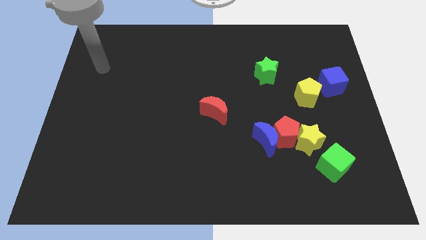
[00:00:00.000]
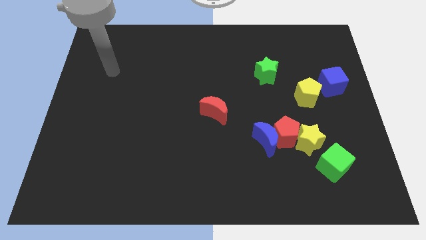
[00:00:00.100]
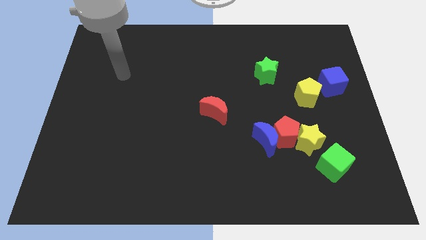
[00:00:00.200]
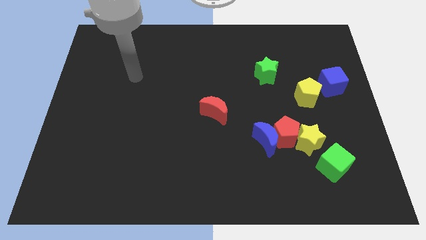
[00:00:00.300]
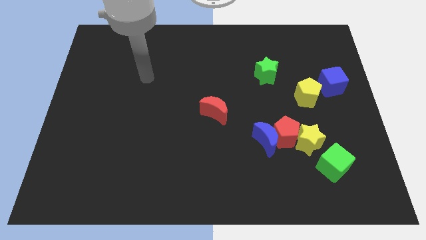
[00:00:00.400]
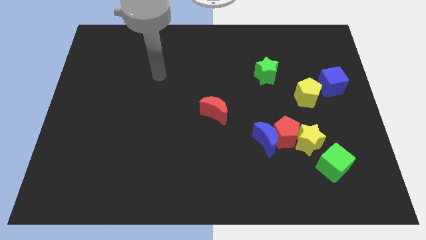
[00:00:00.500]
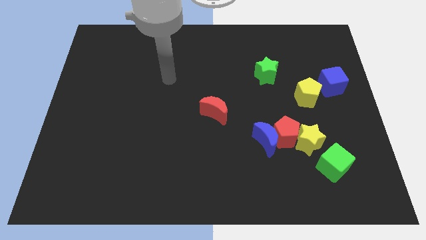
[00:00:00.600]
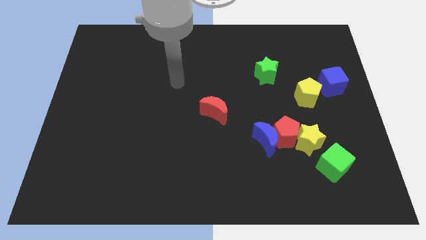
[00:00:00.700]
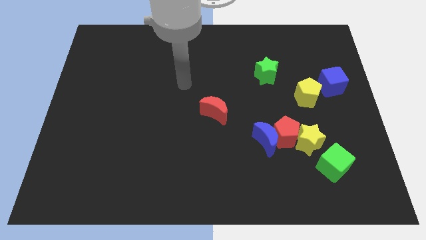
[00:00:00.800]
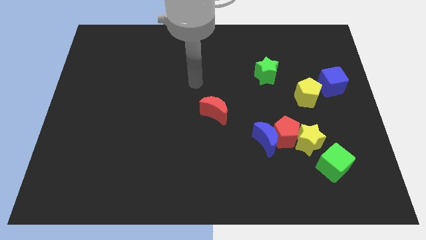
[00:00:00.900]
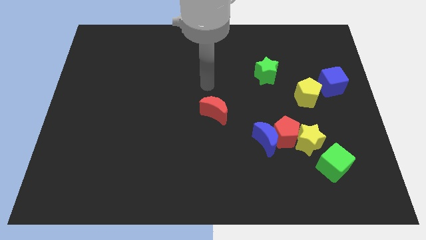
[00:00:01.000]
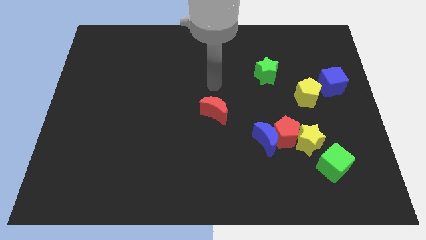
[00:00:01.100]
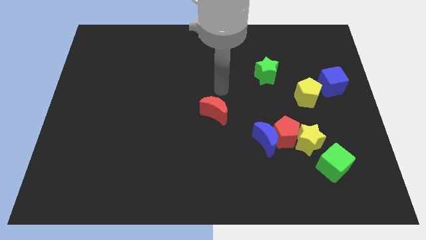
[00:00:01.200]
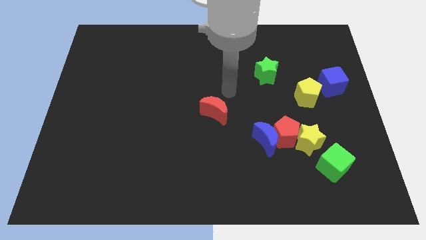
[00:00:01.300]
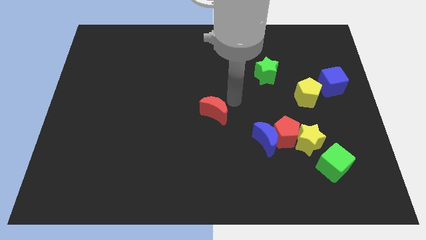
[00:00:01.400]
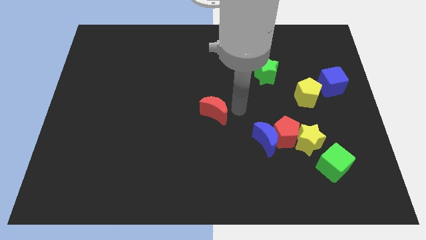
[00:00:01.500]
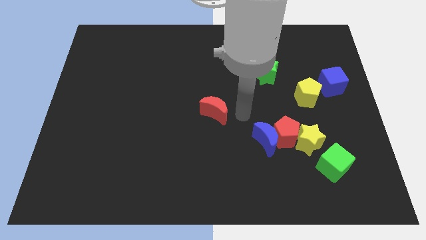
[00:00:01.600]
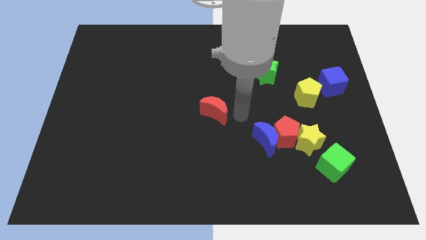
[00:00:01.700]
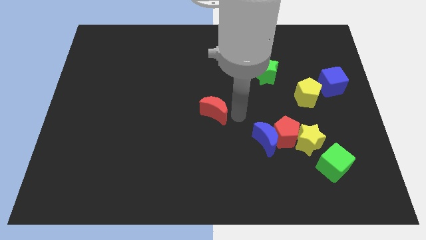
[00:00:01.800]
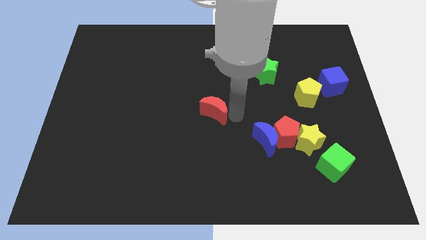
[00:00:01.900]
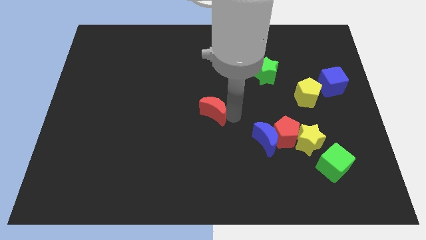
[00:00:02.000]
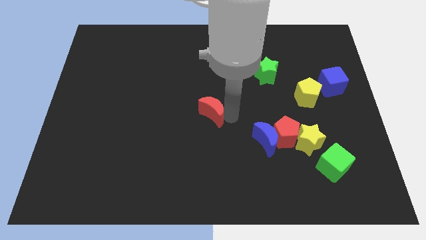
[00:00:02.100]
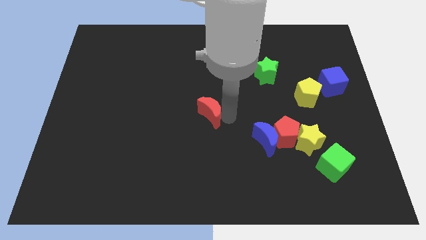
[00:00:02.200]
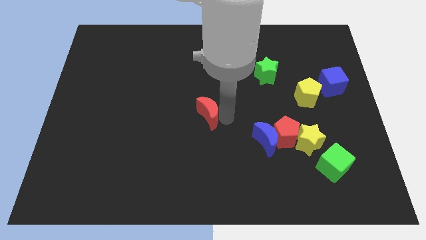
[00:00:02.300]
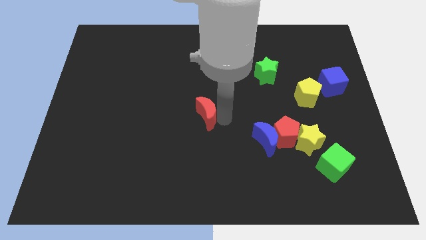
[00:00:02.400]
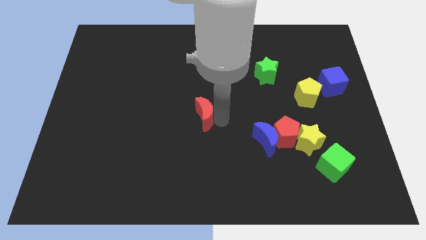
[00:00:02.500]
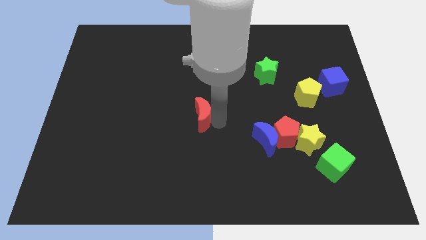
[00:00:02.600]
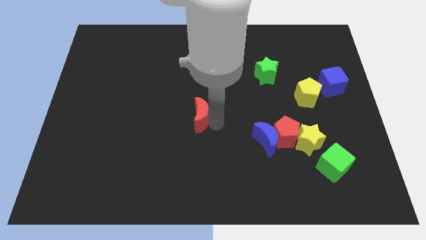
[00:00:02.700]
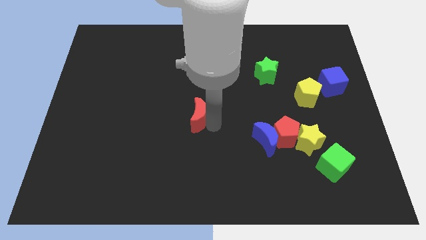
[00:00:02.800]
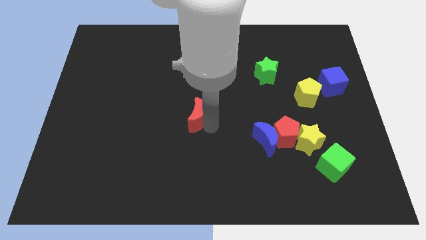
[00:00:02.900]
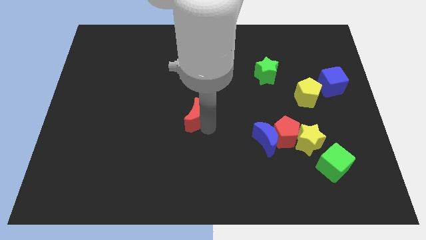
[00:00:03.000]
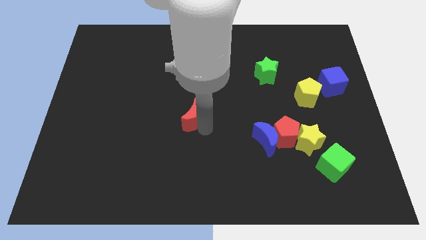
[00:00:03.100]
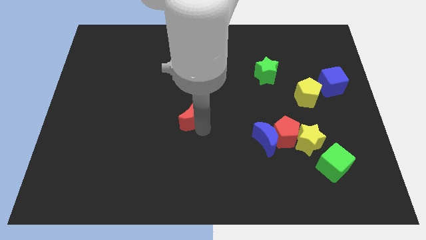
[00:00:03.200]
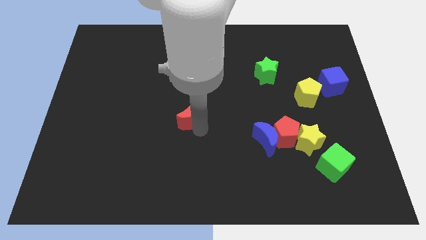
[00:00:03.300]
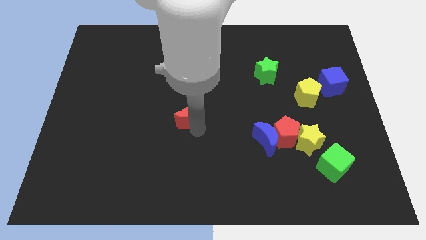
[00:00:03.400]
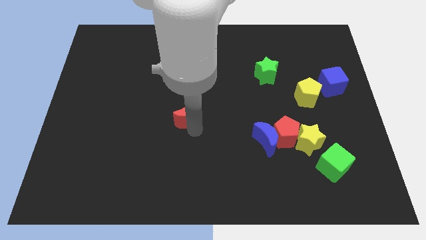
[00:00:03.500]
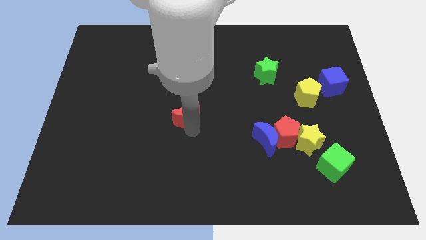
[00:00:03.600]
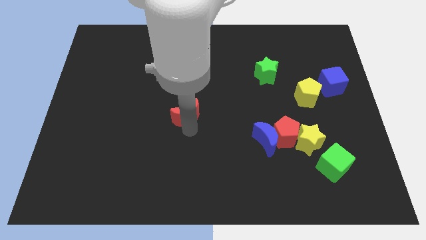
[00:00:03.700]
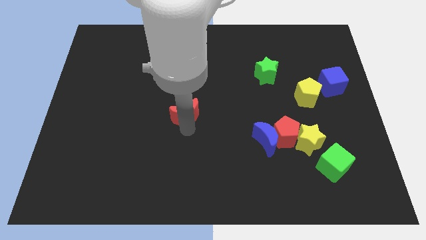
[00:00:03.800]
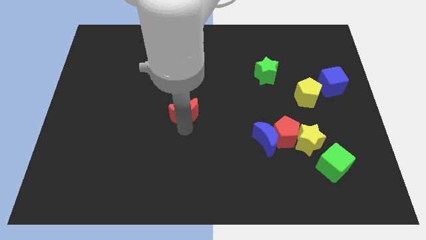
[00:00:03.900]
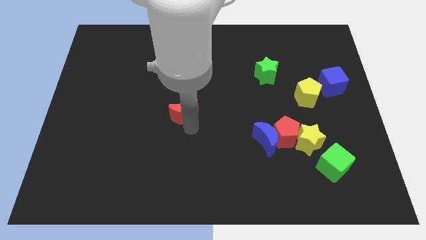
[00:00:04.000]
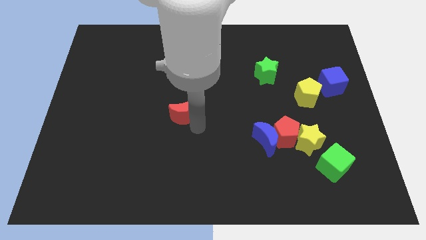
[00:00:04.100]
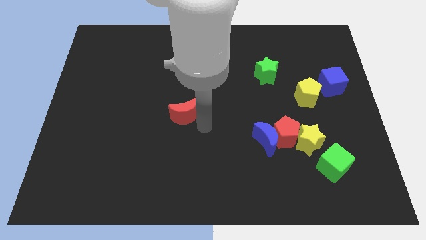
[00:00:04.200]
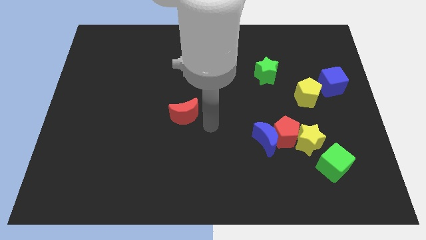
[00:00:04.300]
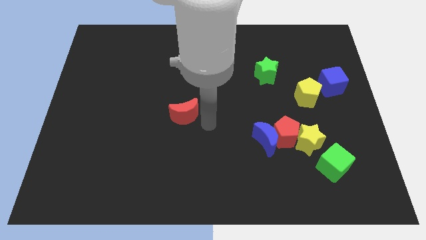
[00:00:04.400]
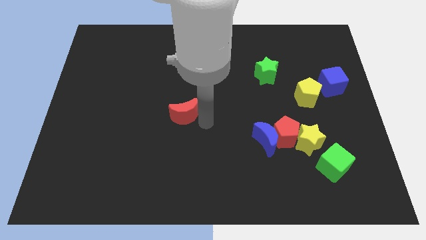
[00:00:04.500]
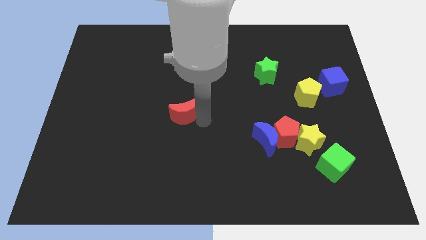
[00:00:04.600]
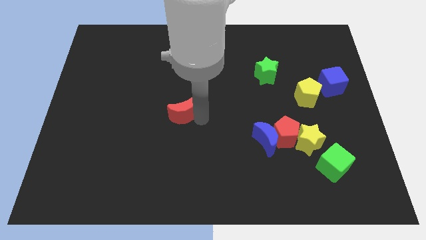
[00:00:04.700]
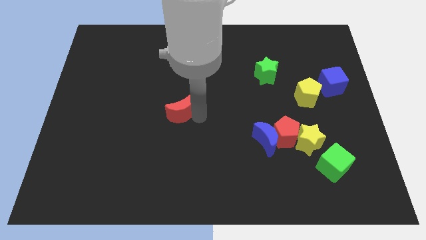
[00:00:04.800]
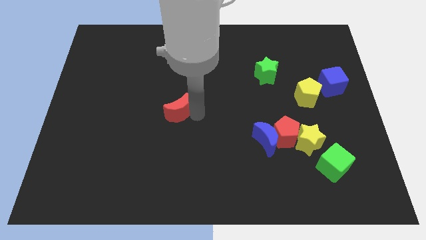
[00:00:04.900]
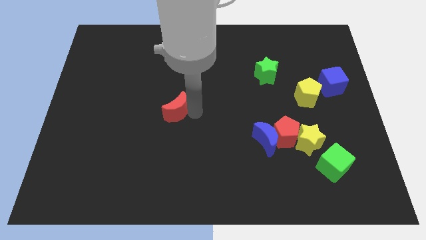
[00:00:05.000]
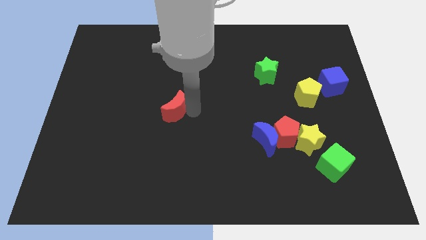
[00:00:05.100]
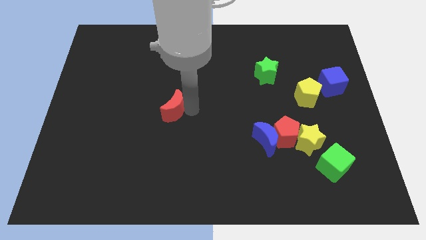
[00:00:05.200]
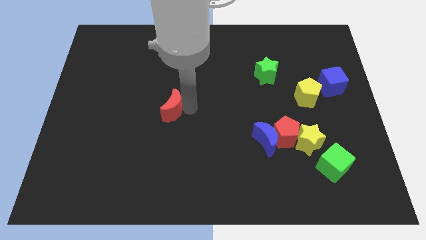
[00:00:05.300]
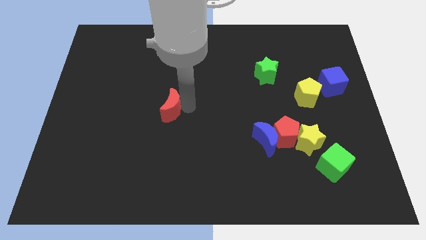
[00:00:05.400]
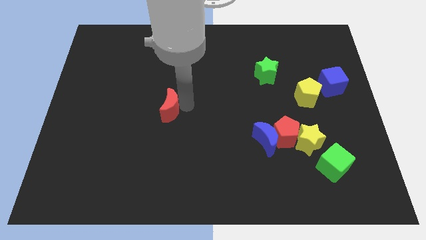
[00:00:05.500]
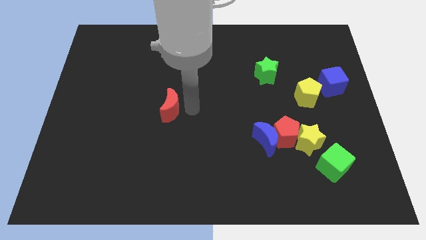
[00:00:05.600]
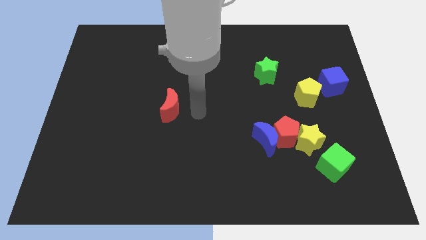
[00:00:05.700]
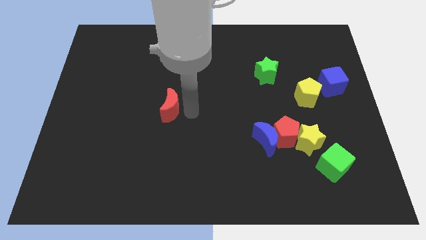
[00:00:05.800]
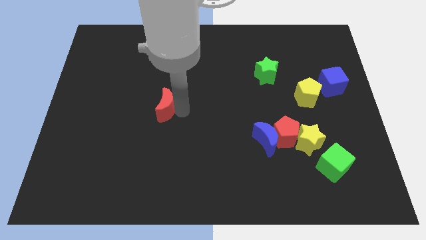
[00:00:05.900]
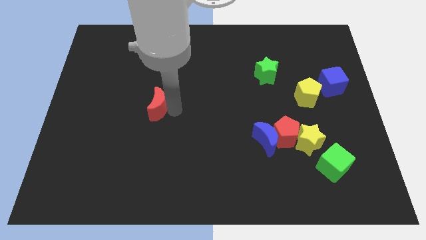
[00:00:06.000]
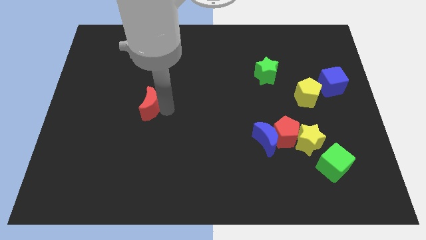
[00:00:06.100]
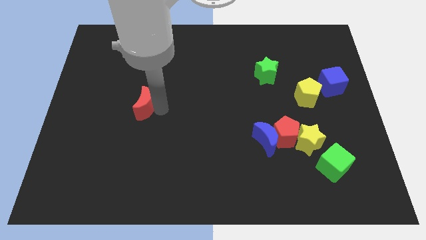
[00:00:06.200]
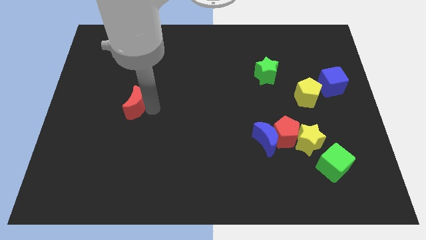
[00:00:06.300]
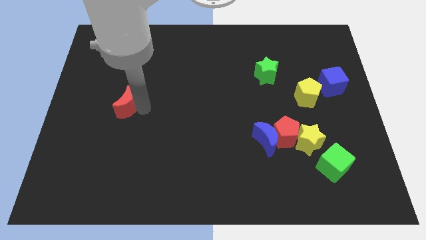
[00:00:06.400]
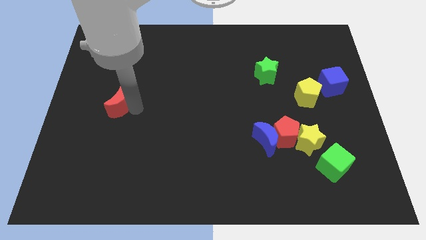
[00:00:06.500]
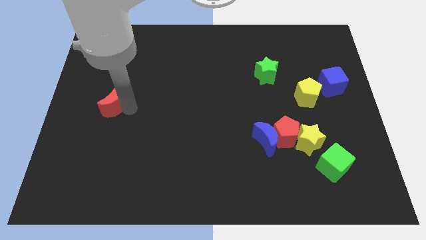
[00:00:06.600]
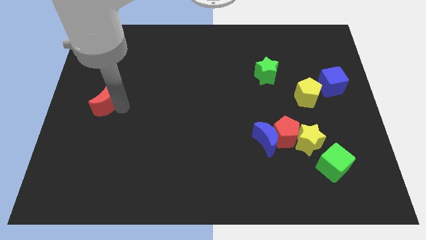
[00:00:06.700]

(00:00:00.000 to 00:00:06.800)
push the red moon to the center left
